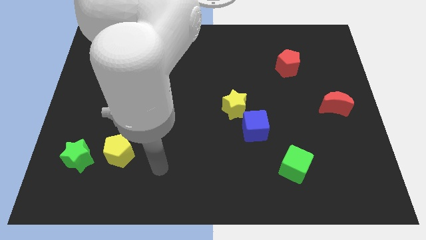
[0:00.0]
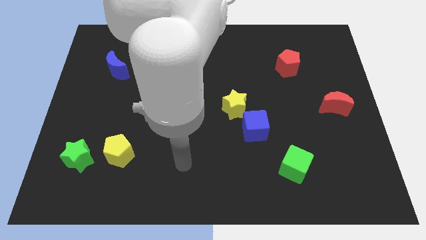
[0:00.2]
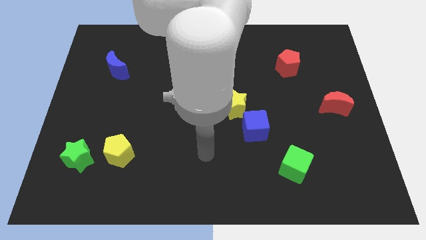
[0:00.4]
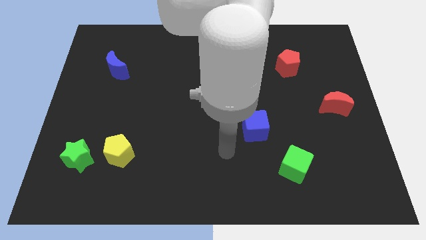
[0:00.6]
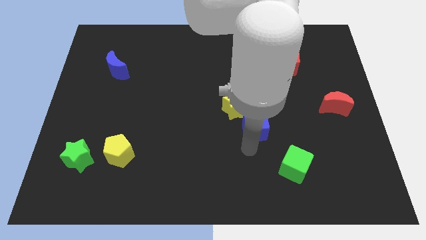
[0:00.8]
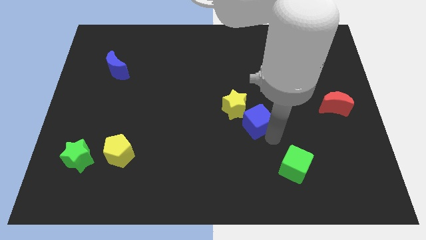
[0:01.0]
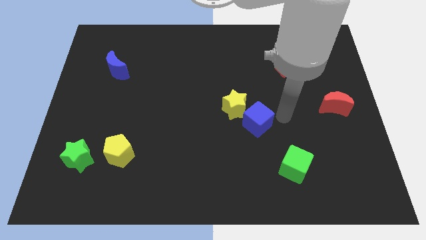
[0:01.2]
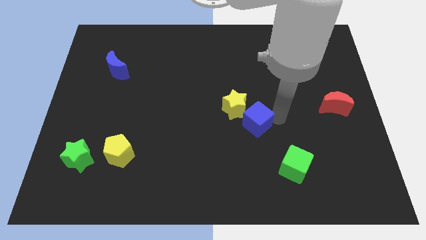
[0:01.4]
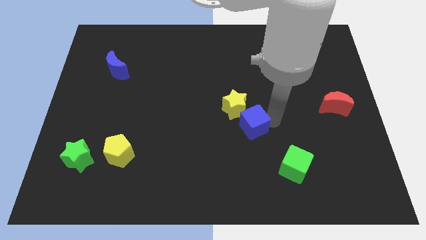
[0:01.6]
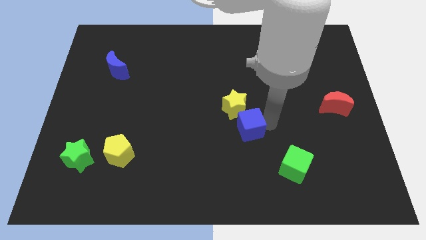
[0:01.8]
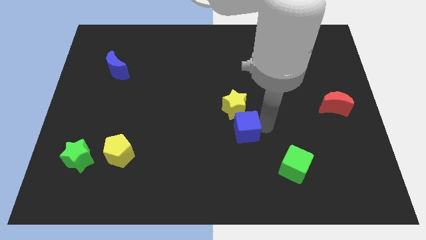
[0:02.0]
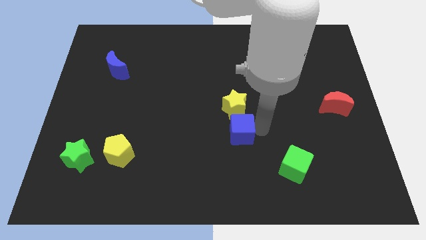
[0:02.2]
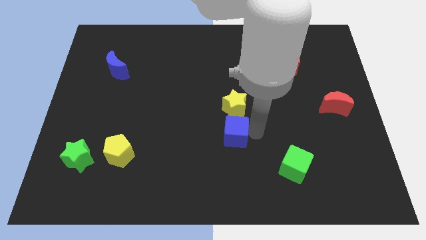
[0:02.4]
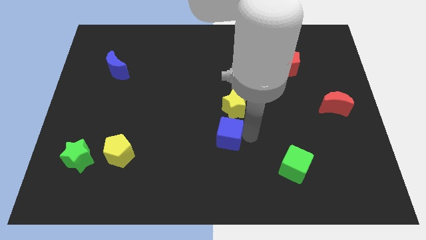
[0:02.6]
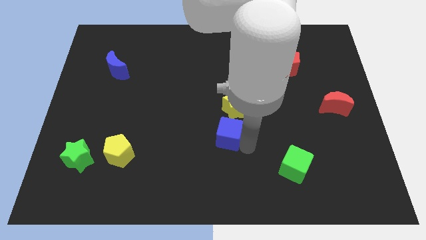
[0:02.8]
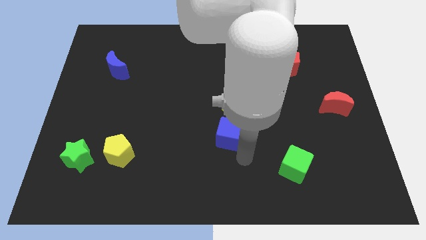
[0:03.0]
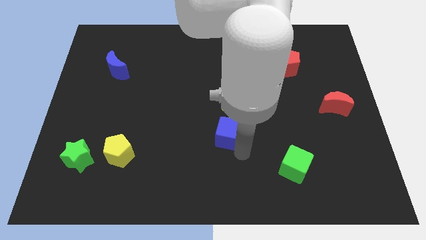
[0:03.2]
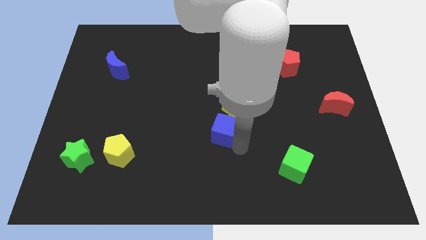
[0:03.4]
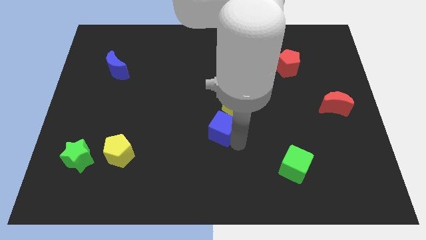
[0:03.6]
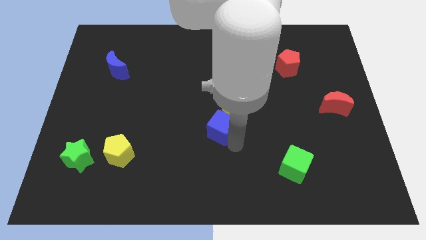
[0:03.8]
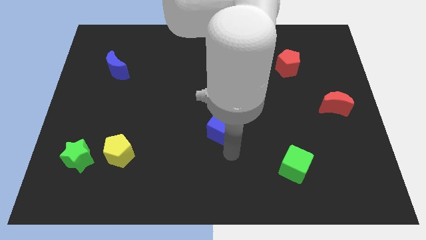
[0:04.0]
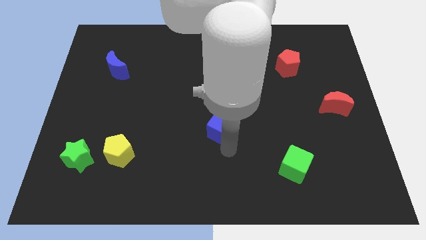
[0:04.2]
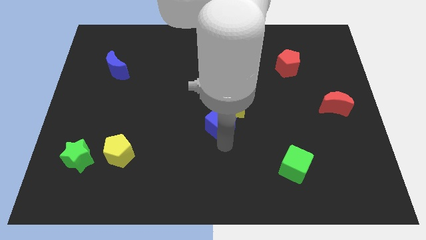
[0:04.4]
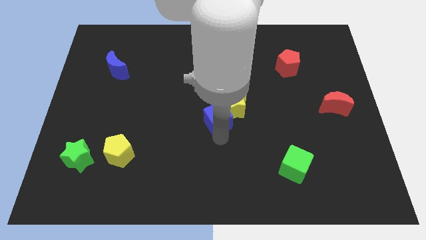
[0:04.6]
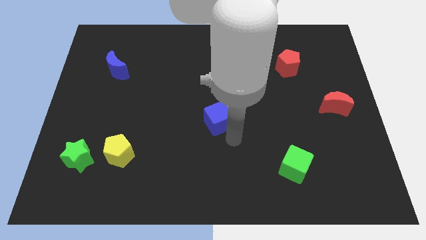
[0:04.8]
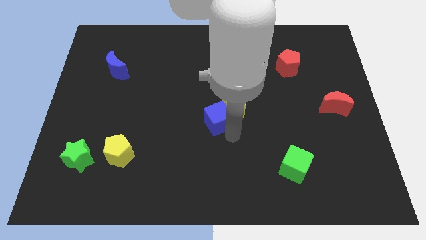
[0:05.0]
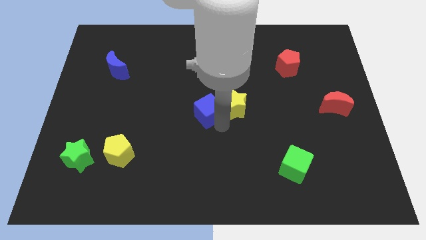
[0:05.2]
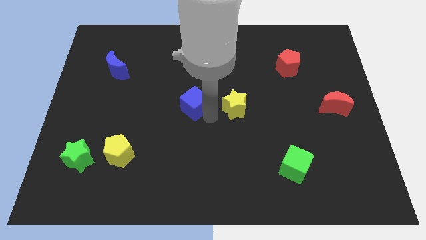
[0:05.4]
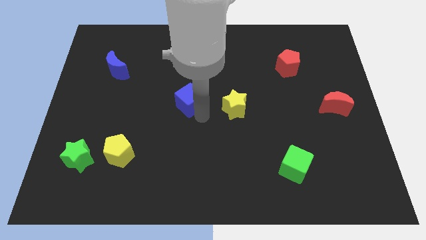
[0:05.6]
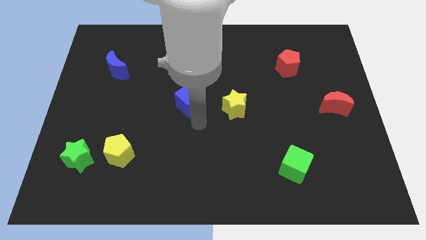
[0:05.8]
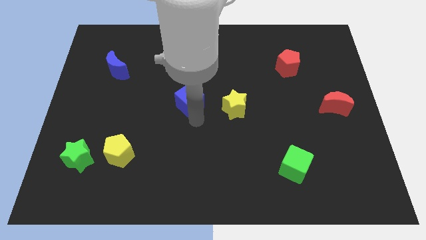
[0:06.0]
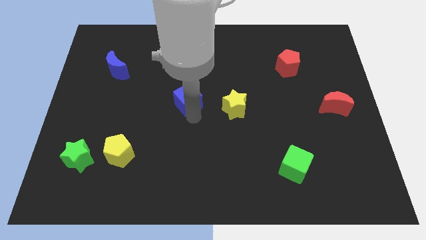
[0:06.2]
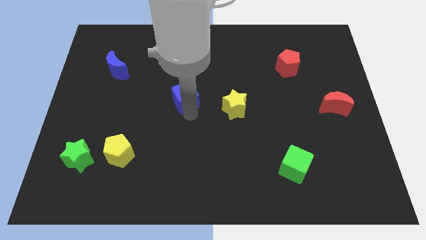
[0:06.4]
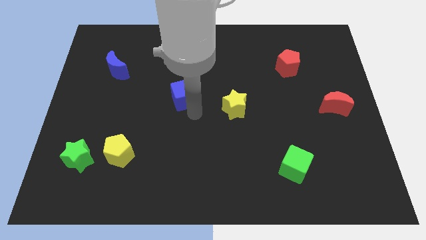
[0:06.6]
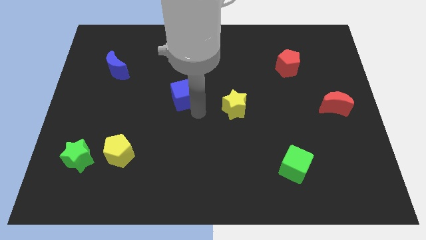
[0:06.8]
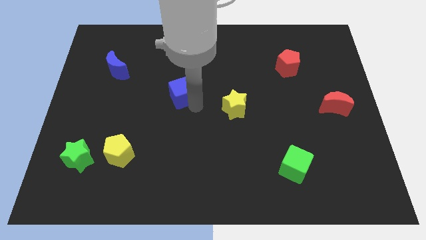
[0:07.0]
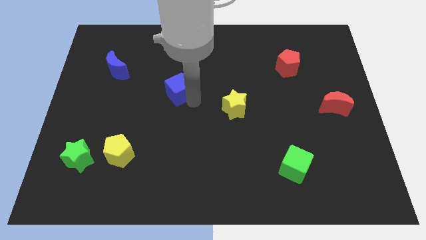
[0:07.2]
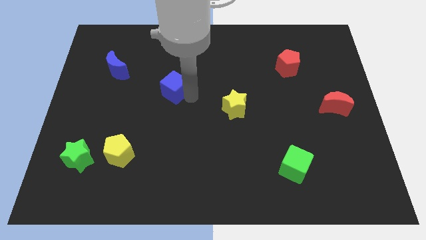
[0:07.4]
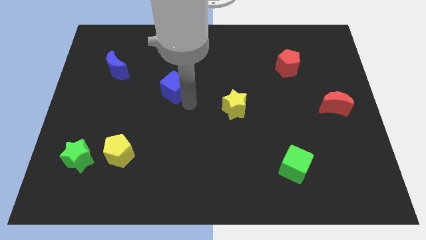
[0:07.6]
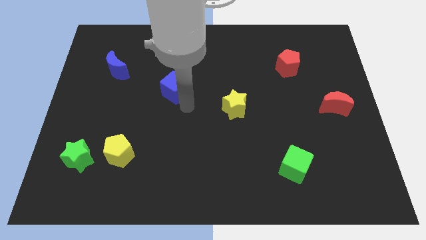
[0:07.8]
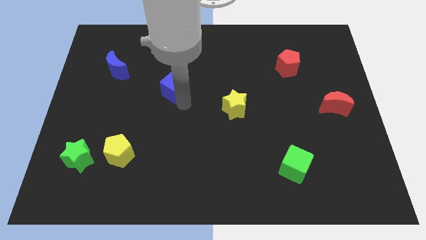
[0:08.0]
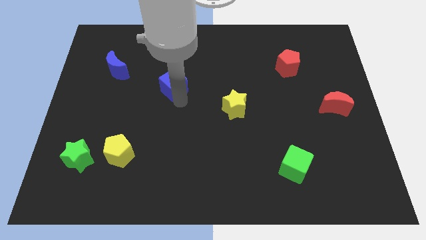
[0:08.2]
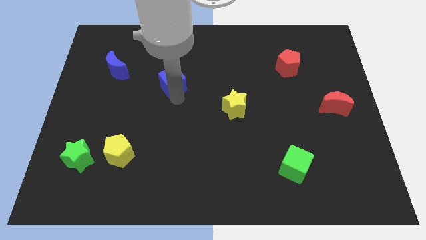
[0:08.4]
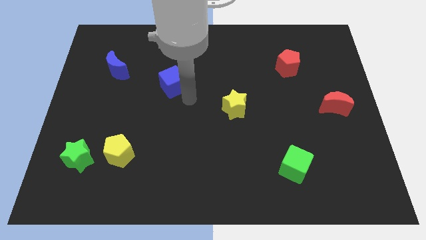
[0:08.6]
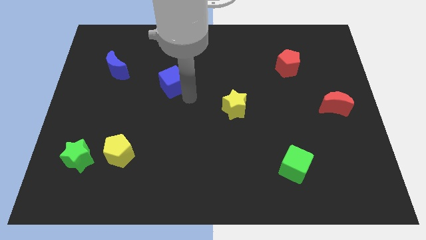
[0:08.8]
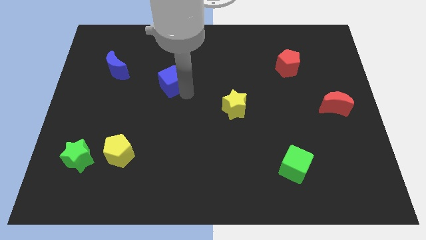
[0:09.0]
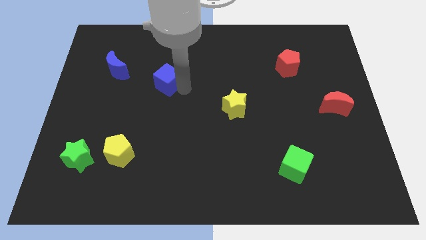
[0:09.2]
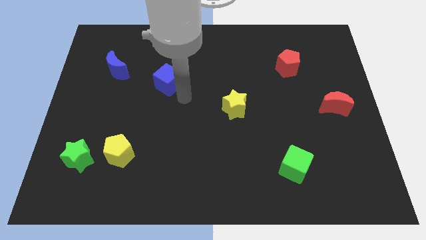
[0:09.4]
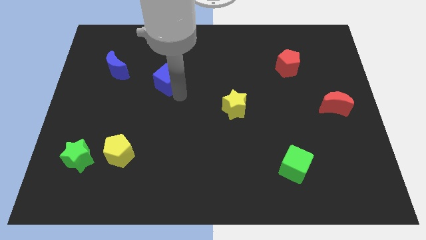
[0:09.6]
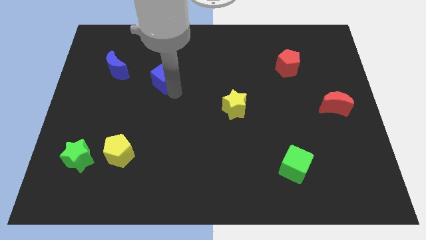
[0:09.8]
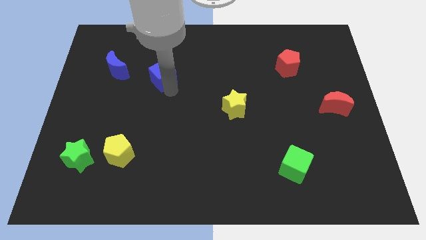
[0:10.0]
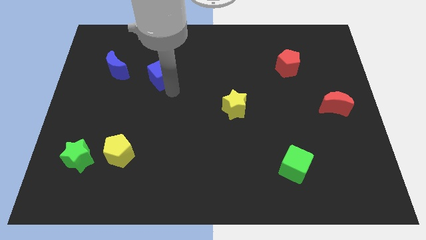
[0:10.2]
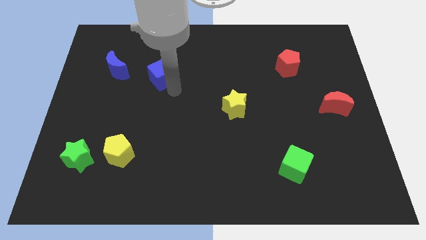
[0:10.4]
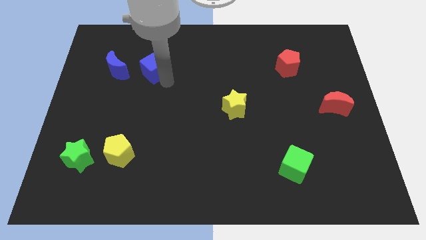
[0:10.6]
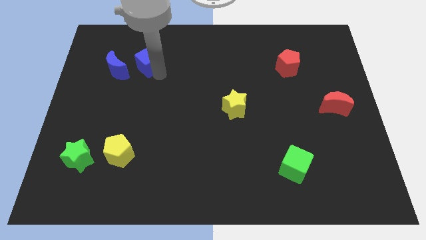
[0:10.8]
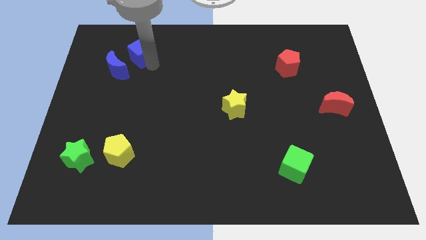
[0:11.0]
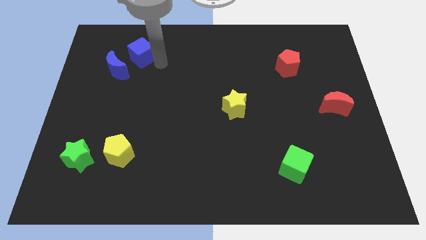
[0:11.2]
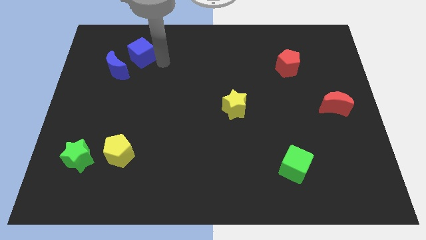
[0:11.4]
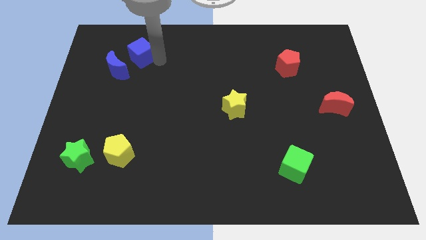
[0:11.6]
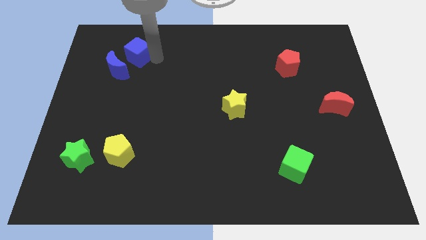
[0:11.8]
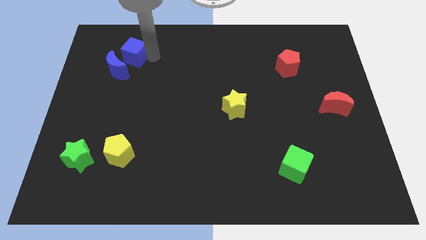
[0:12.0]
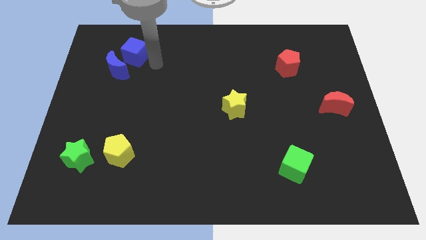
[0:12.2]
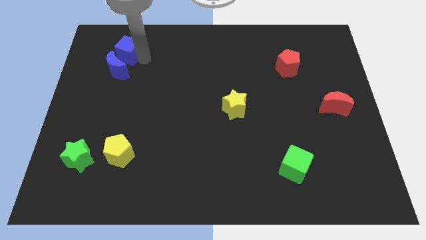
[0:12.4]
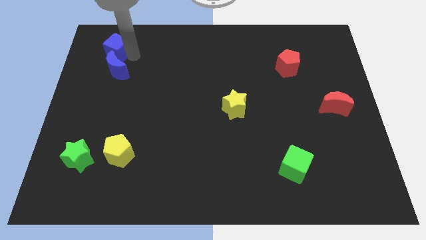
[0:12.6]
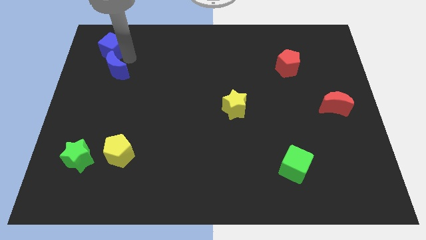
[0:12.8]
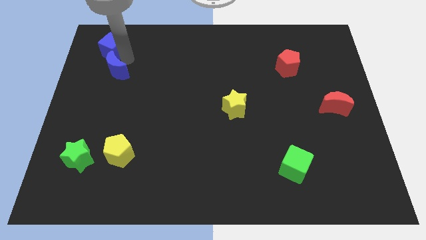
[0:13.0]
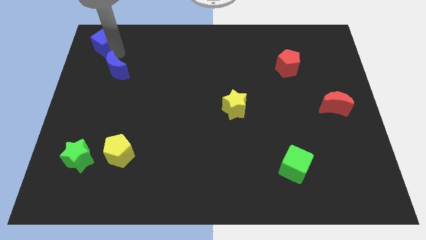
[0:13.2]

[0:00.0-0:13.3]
push the blue cube to the top left
